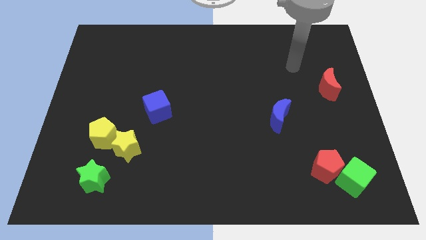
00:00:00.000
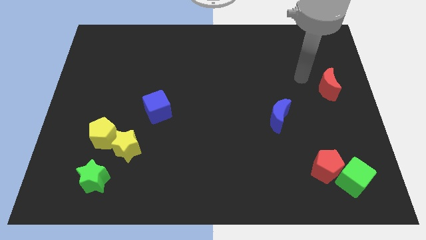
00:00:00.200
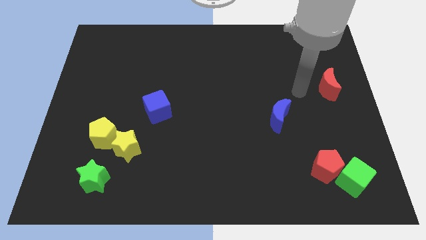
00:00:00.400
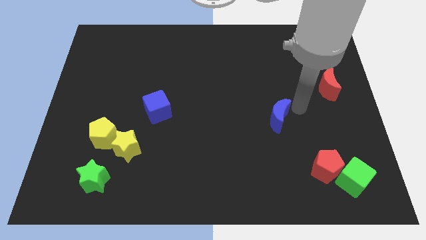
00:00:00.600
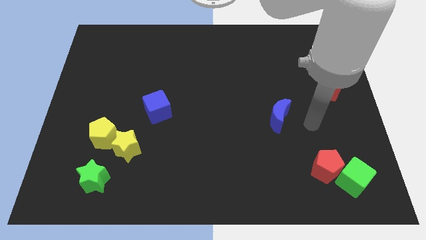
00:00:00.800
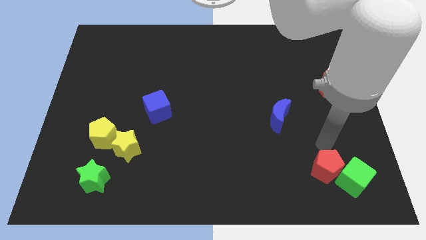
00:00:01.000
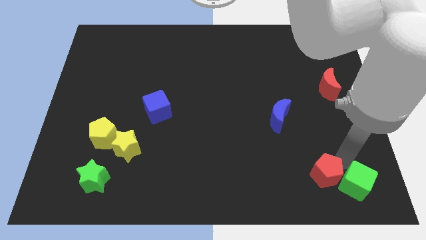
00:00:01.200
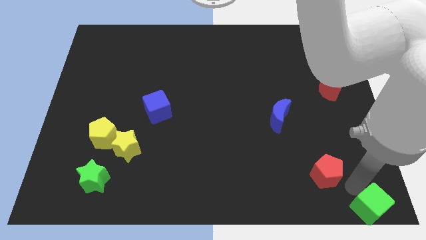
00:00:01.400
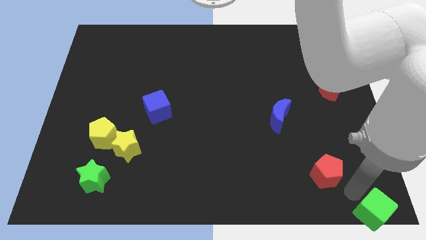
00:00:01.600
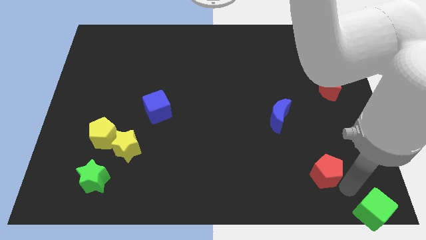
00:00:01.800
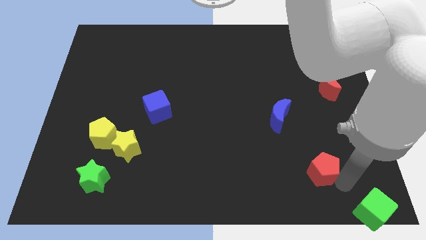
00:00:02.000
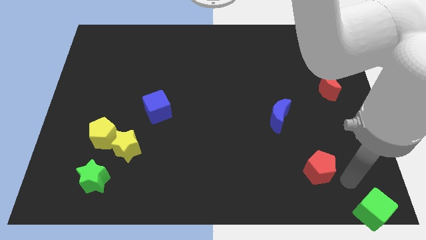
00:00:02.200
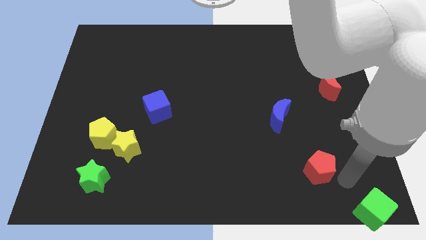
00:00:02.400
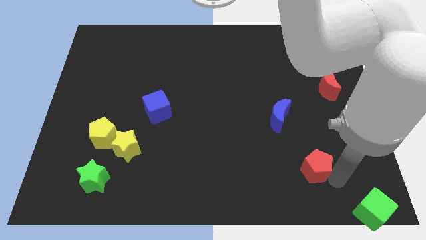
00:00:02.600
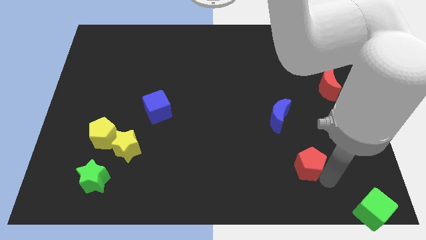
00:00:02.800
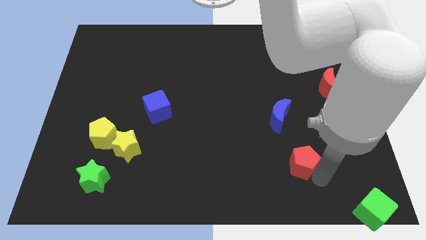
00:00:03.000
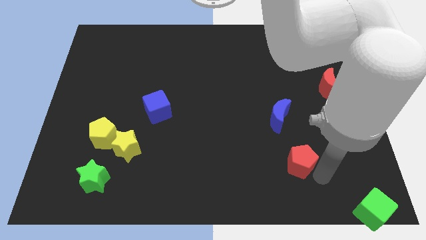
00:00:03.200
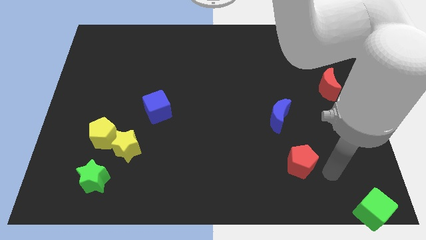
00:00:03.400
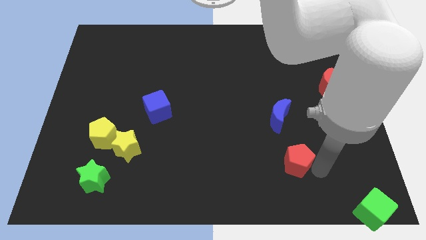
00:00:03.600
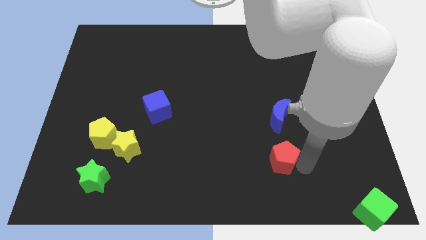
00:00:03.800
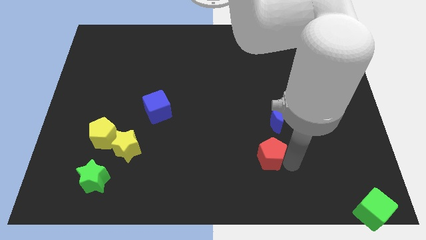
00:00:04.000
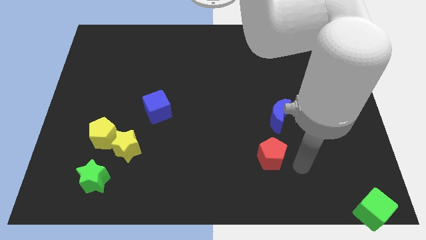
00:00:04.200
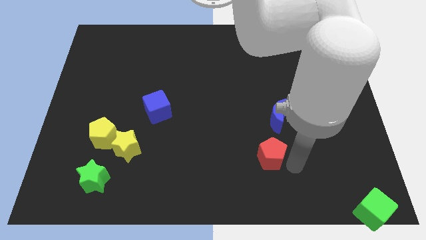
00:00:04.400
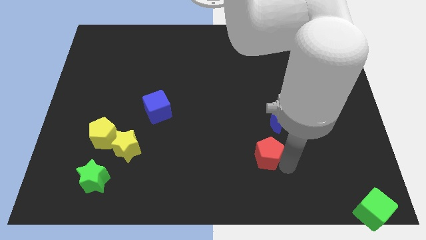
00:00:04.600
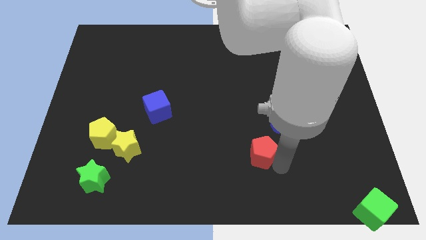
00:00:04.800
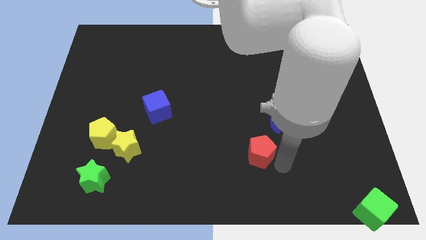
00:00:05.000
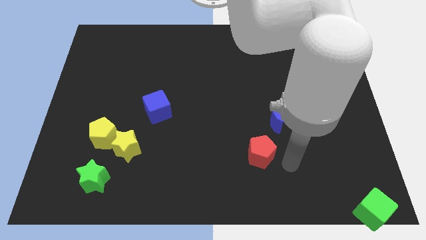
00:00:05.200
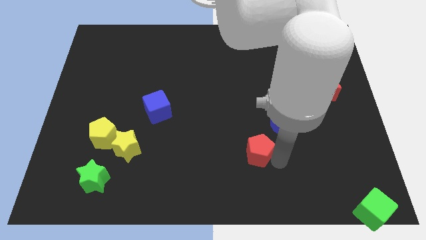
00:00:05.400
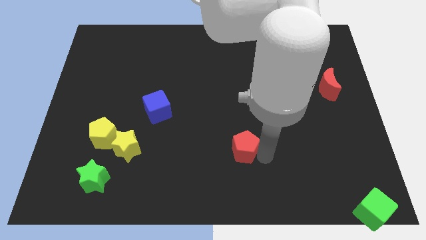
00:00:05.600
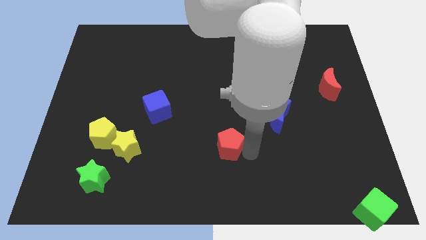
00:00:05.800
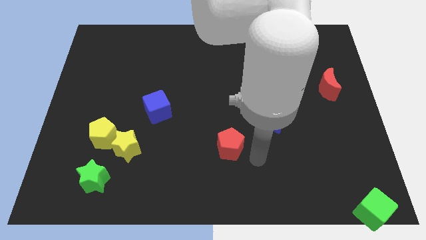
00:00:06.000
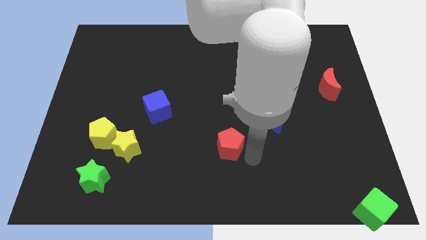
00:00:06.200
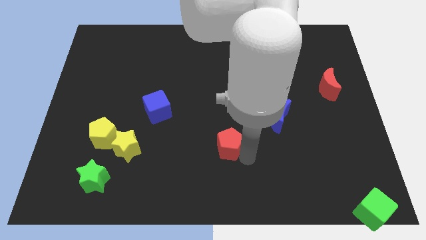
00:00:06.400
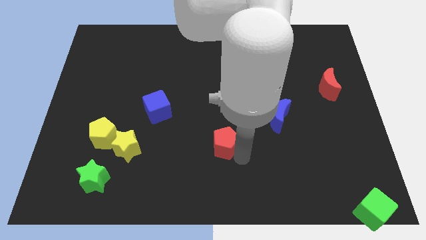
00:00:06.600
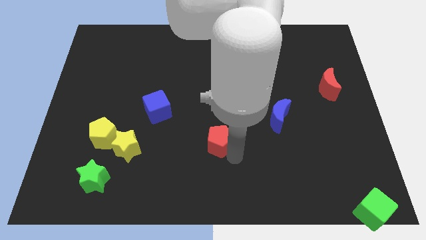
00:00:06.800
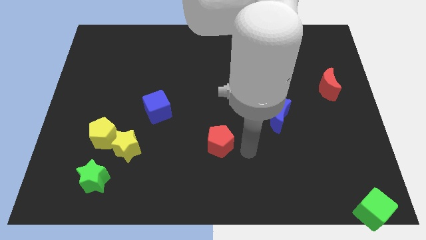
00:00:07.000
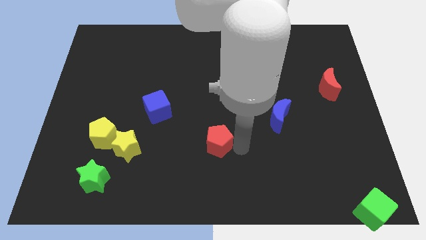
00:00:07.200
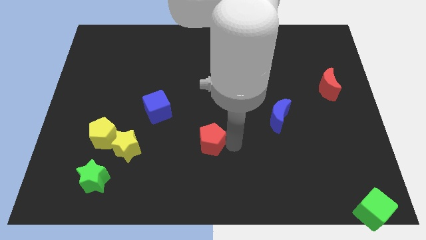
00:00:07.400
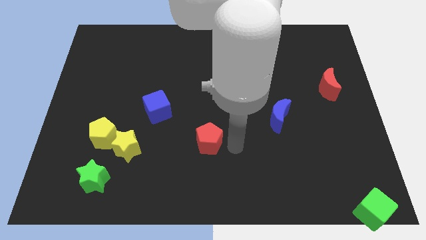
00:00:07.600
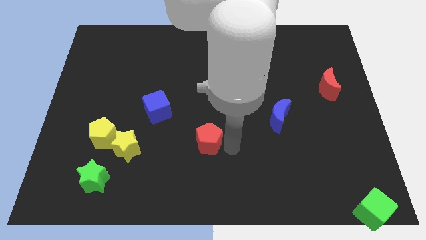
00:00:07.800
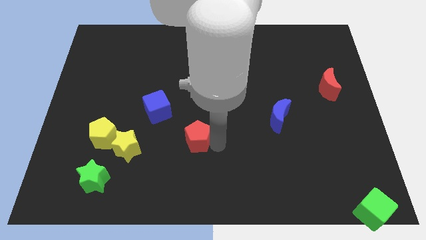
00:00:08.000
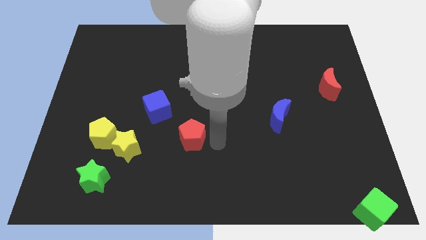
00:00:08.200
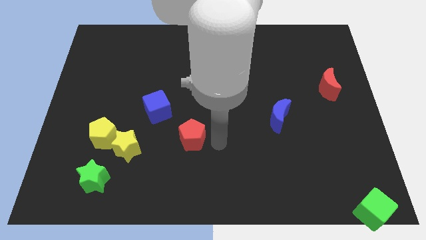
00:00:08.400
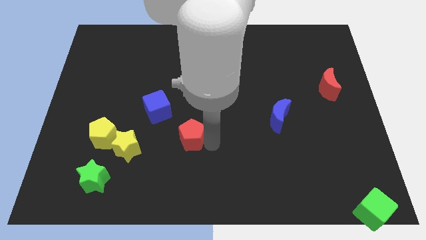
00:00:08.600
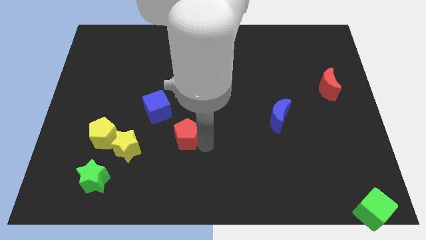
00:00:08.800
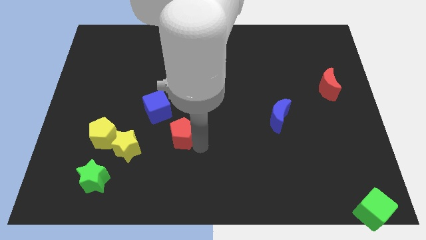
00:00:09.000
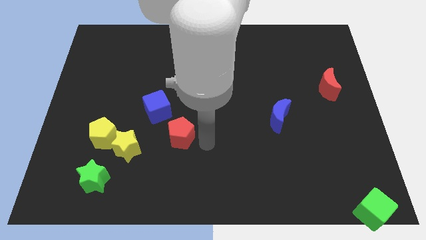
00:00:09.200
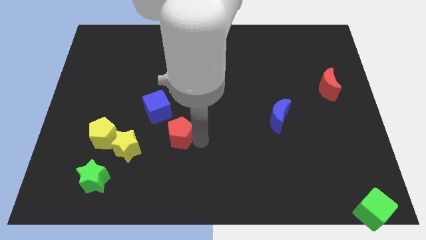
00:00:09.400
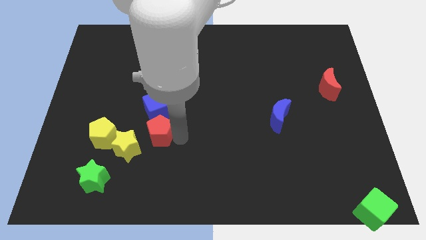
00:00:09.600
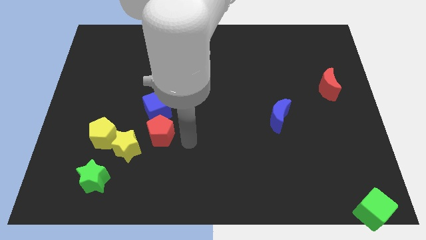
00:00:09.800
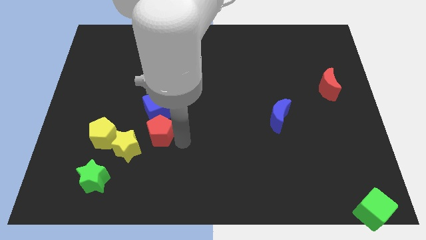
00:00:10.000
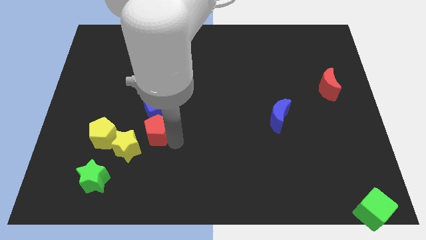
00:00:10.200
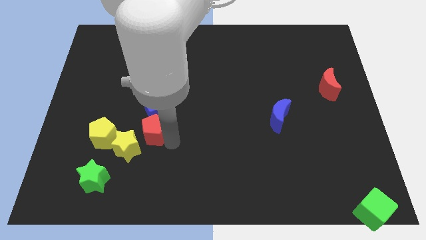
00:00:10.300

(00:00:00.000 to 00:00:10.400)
slide the red pentagon diagonally down and to the left of the blue cube

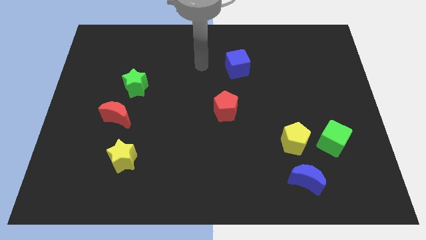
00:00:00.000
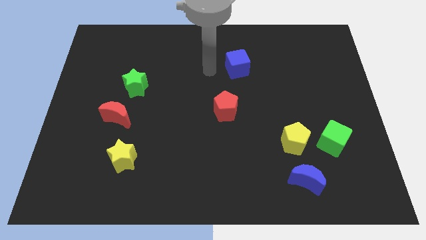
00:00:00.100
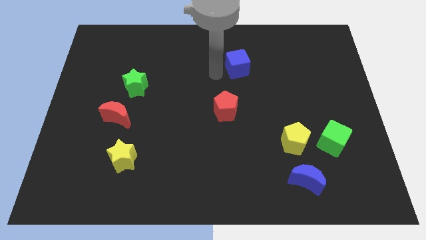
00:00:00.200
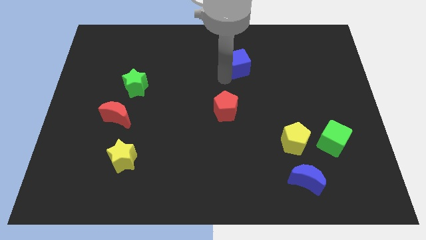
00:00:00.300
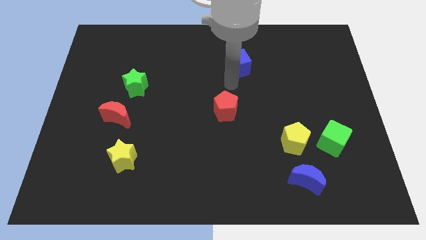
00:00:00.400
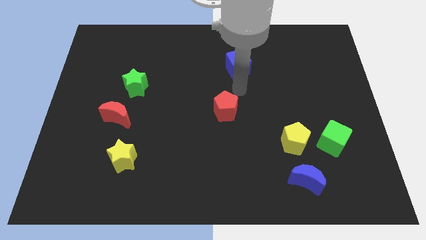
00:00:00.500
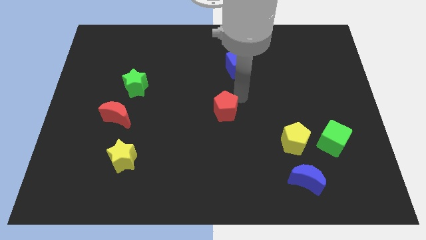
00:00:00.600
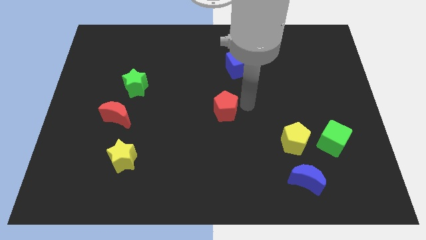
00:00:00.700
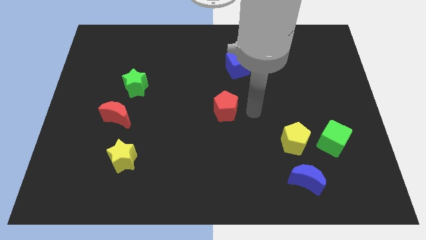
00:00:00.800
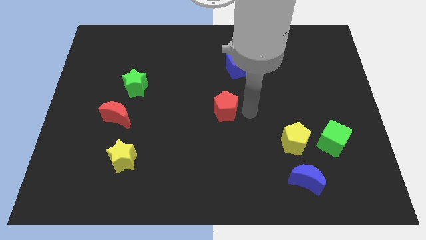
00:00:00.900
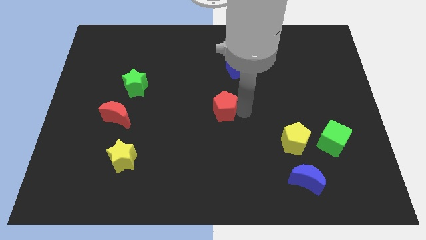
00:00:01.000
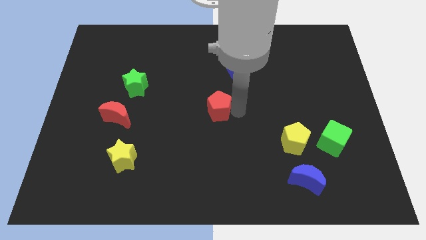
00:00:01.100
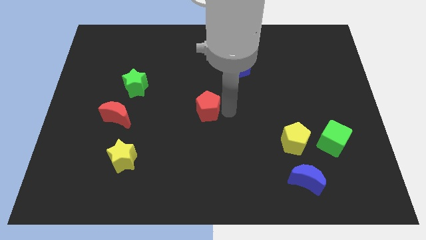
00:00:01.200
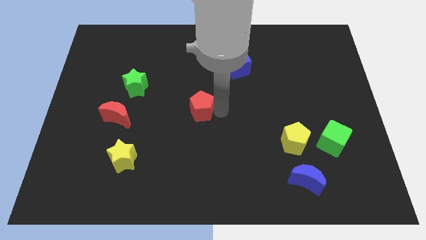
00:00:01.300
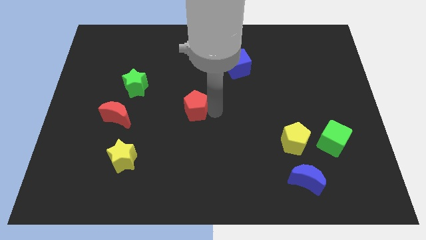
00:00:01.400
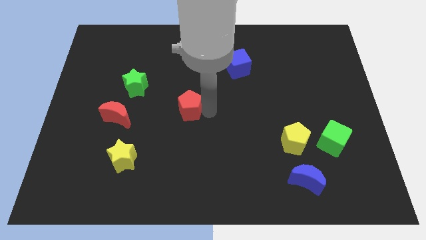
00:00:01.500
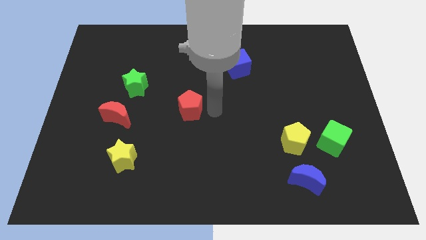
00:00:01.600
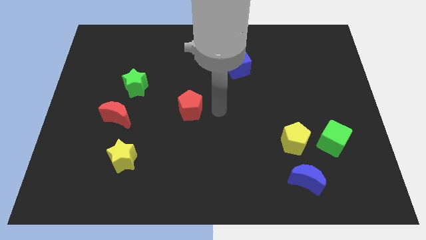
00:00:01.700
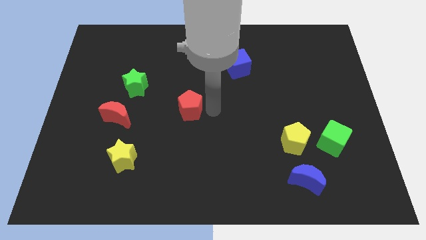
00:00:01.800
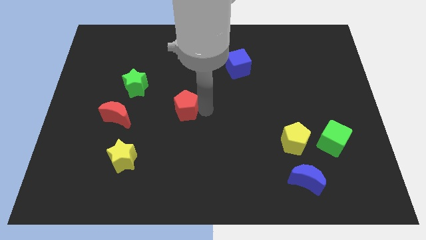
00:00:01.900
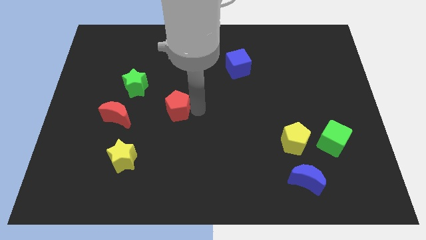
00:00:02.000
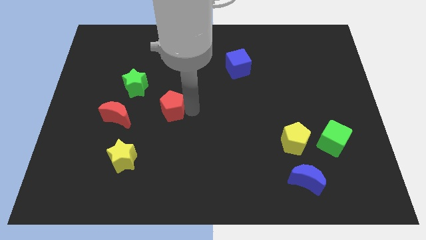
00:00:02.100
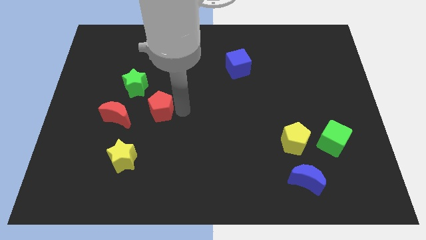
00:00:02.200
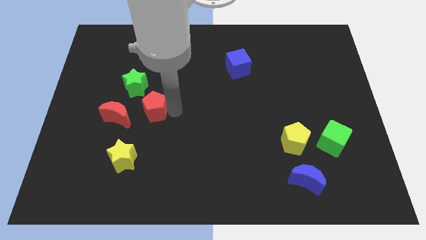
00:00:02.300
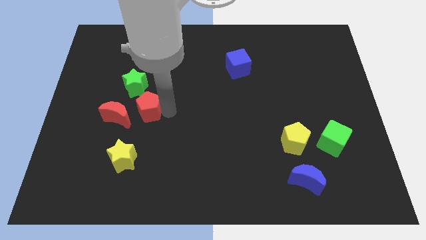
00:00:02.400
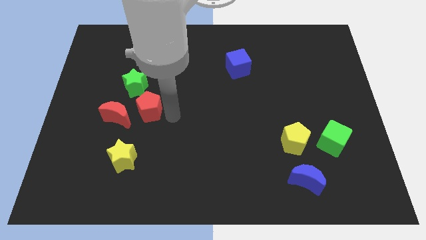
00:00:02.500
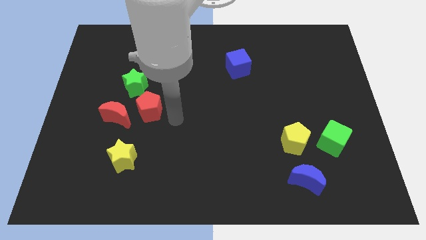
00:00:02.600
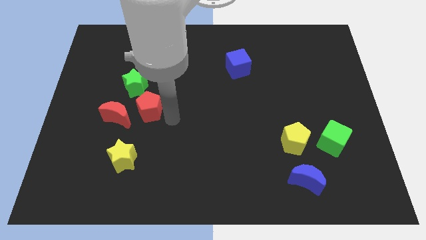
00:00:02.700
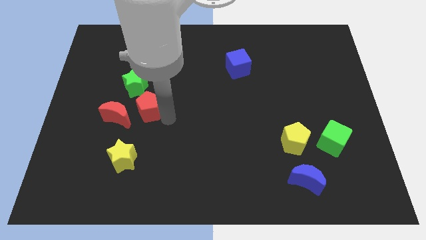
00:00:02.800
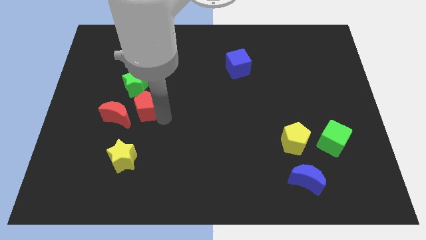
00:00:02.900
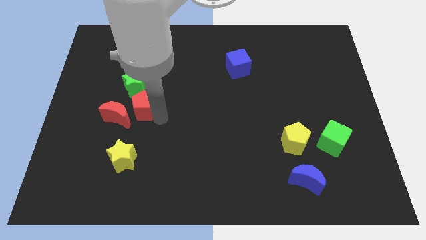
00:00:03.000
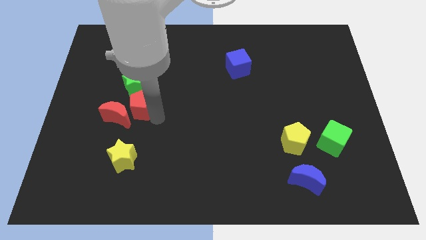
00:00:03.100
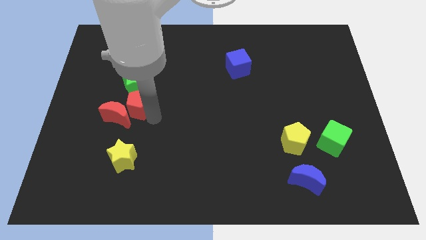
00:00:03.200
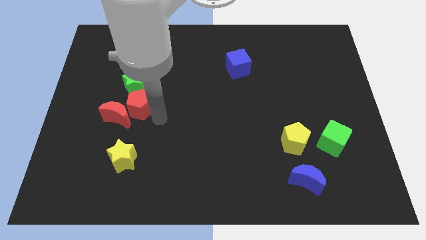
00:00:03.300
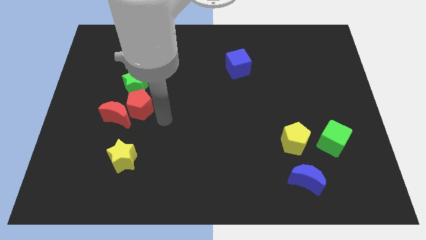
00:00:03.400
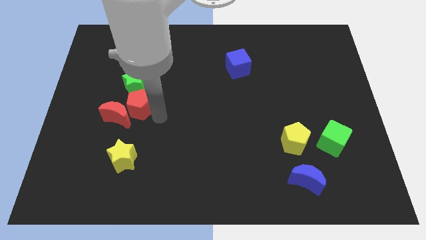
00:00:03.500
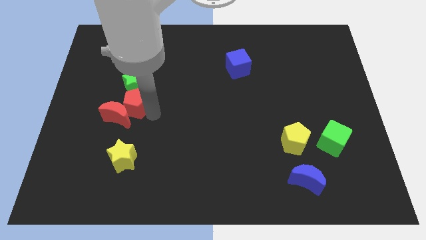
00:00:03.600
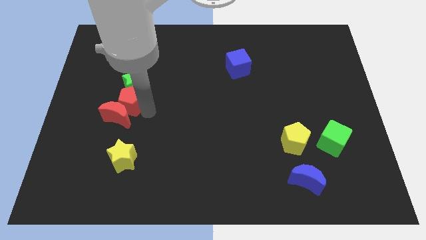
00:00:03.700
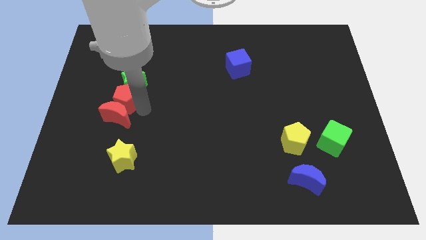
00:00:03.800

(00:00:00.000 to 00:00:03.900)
put the red pentagon diagonally up and to the left of the red moon
